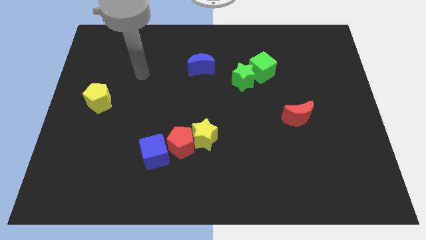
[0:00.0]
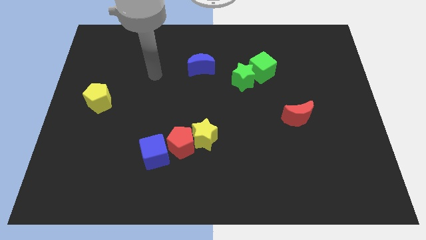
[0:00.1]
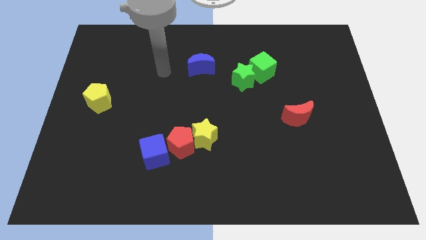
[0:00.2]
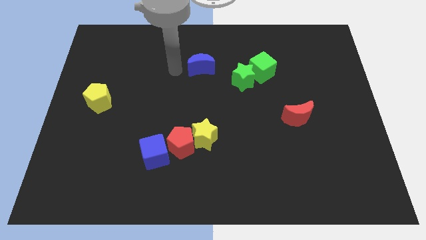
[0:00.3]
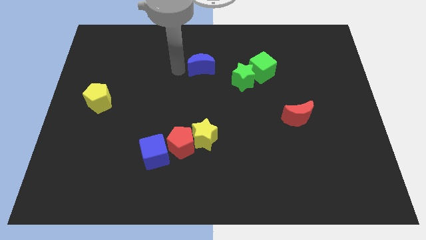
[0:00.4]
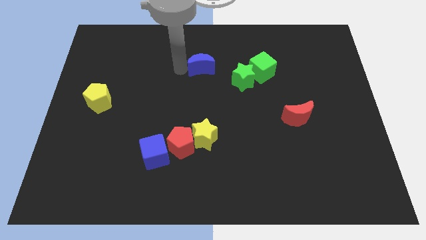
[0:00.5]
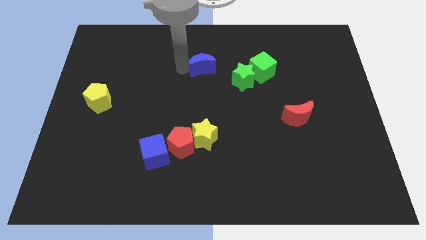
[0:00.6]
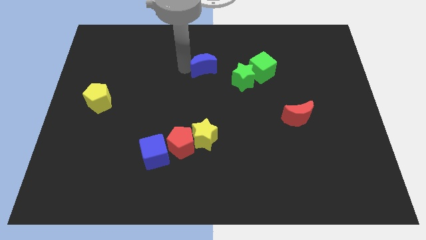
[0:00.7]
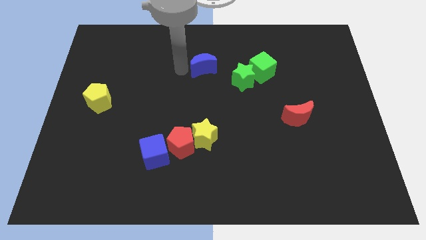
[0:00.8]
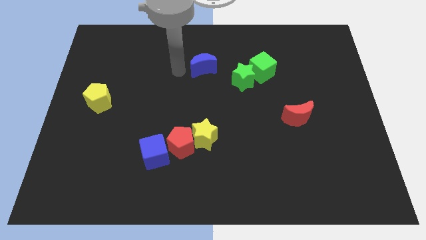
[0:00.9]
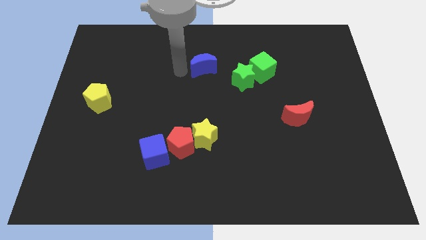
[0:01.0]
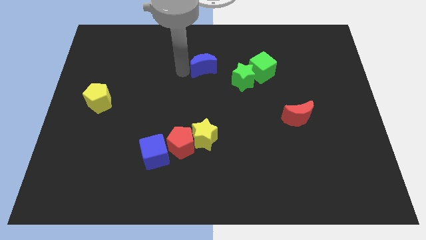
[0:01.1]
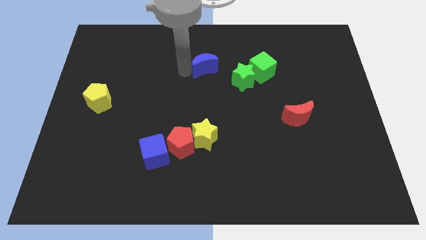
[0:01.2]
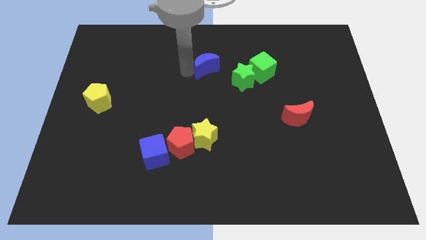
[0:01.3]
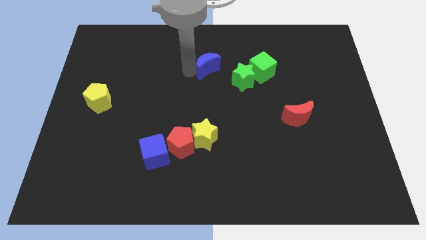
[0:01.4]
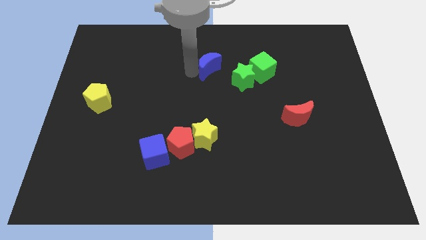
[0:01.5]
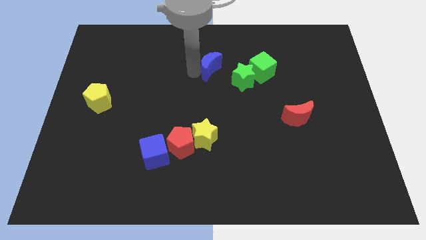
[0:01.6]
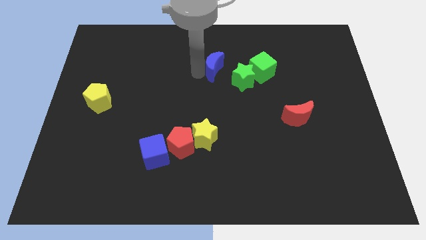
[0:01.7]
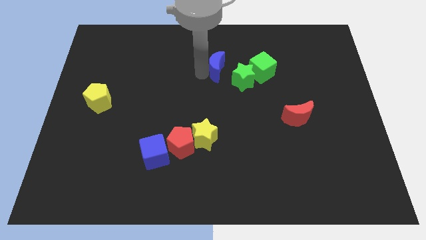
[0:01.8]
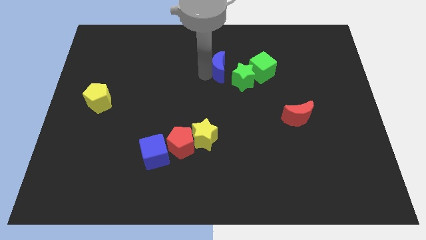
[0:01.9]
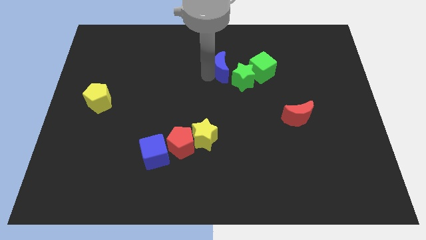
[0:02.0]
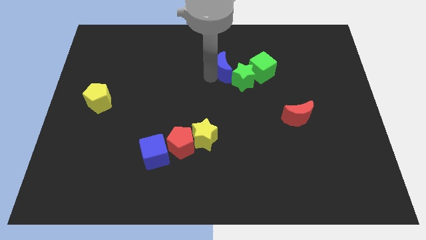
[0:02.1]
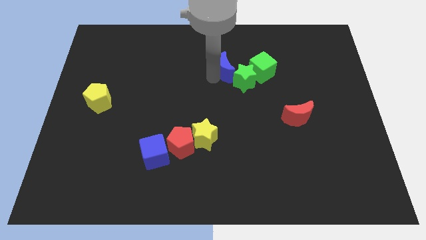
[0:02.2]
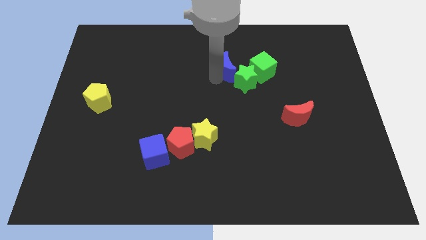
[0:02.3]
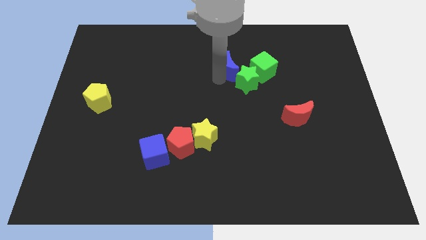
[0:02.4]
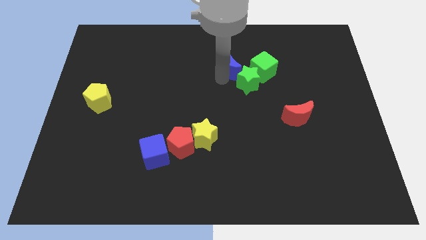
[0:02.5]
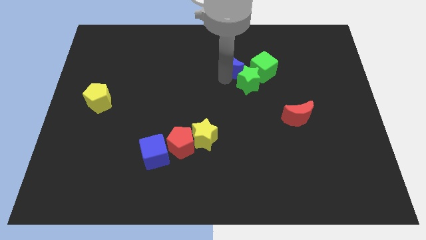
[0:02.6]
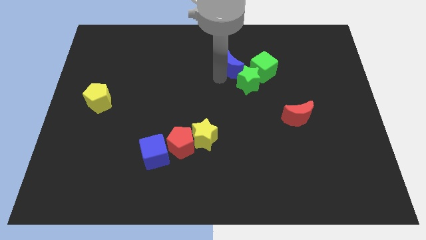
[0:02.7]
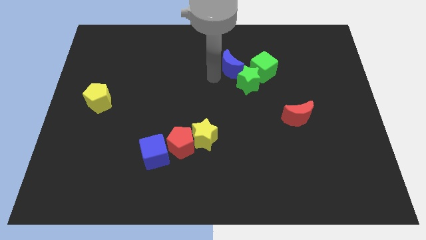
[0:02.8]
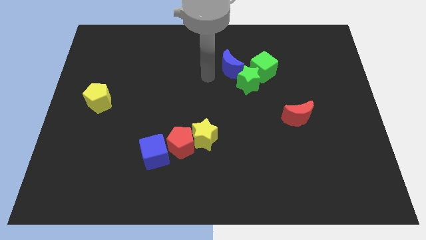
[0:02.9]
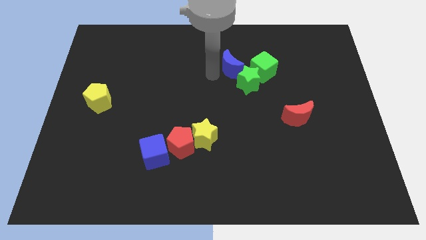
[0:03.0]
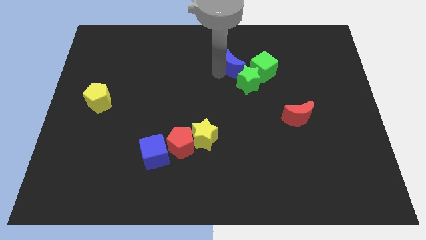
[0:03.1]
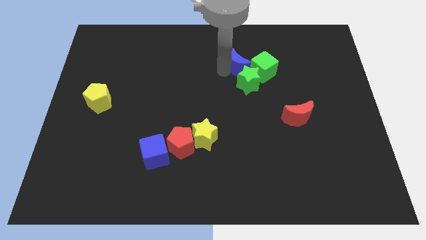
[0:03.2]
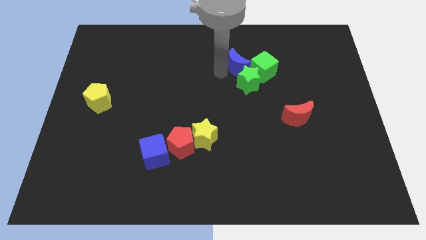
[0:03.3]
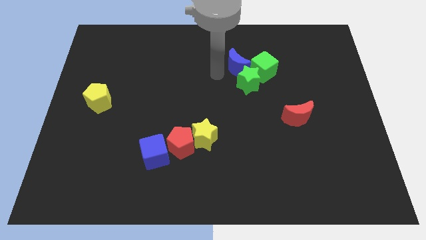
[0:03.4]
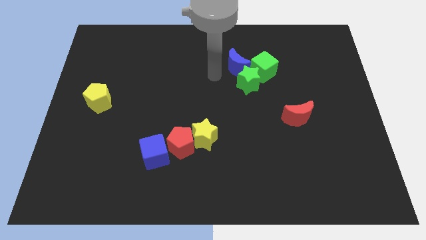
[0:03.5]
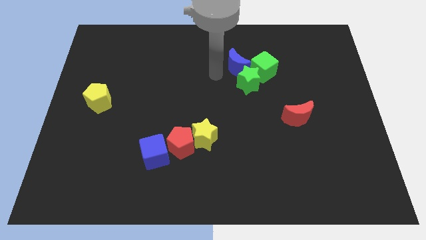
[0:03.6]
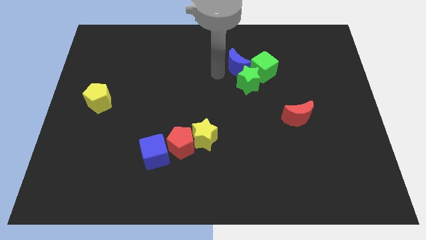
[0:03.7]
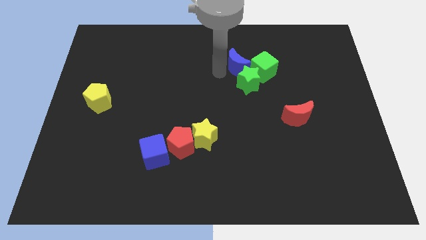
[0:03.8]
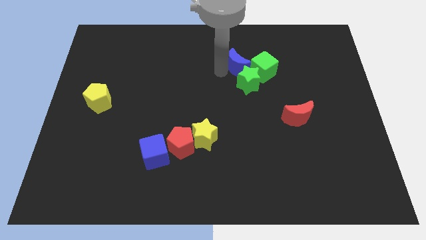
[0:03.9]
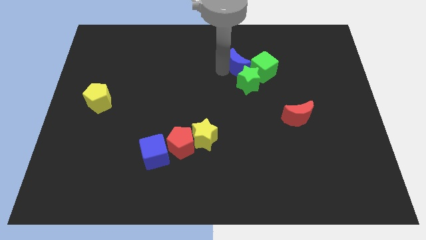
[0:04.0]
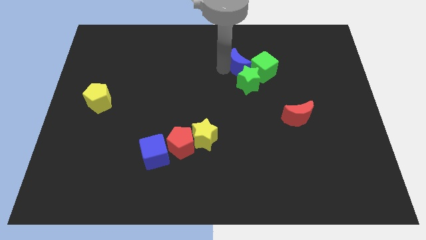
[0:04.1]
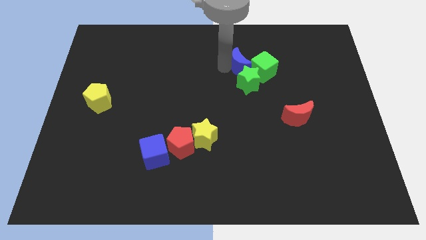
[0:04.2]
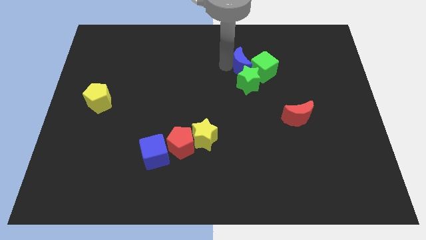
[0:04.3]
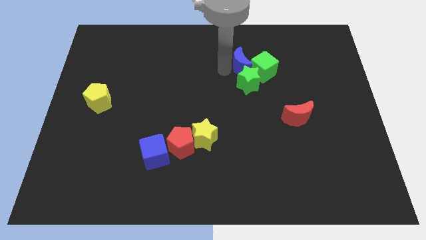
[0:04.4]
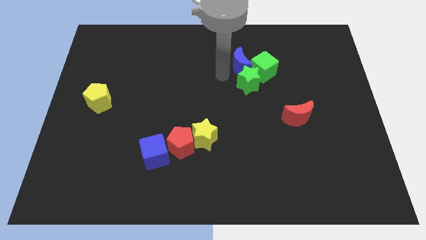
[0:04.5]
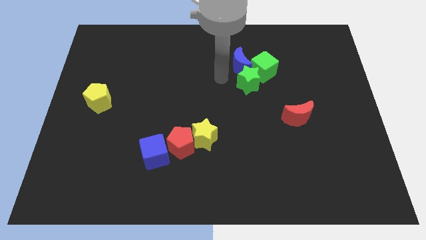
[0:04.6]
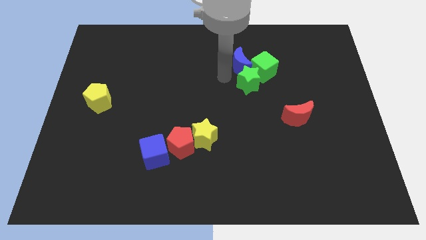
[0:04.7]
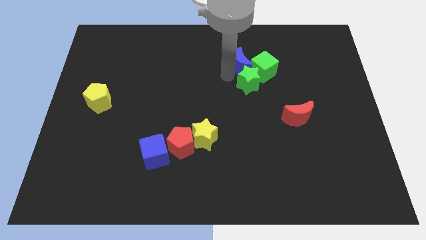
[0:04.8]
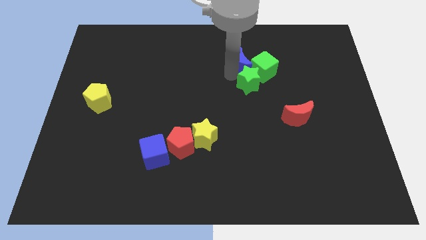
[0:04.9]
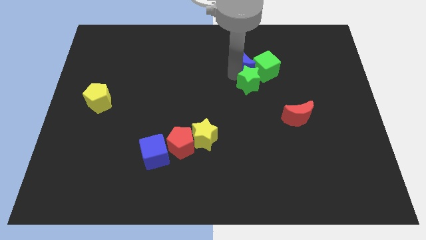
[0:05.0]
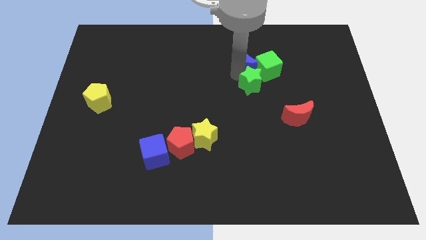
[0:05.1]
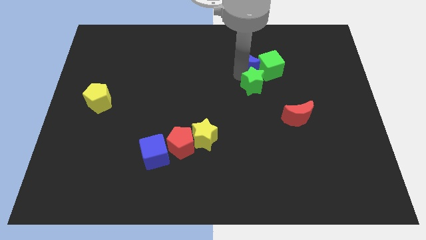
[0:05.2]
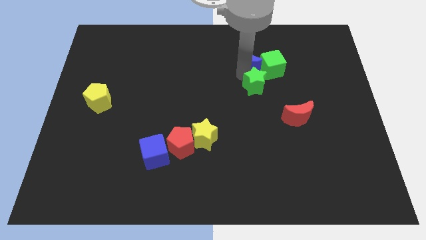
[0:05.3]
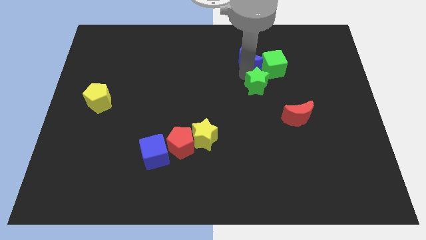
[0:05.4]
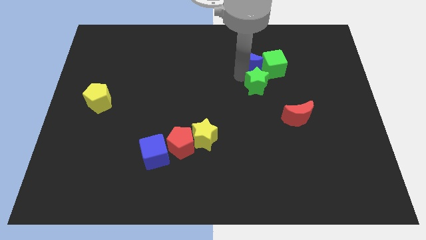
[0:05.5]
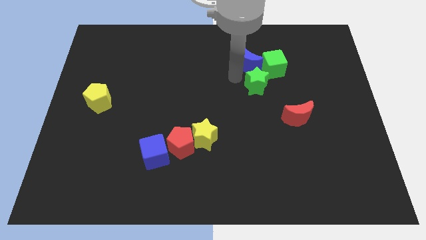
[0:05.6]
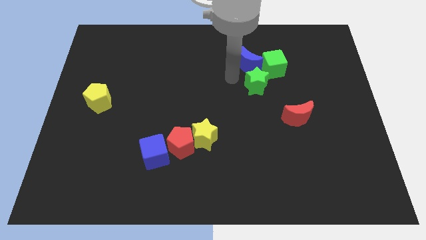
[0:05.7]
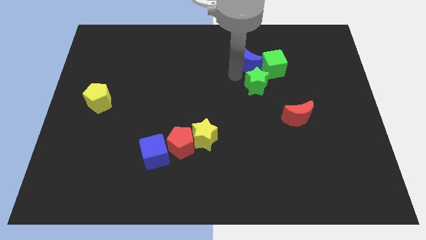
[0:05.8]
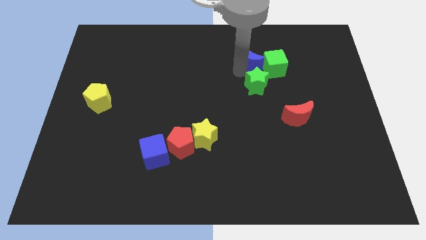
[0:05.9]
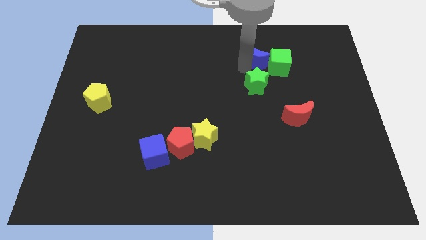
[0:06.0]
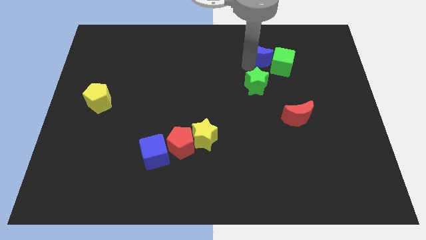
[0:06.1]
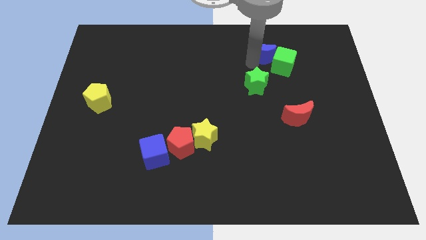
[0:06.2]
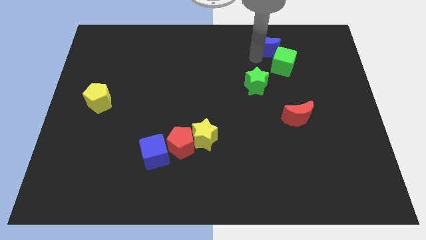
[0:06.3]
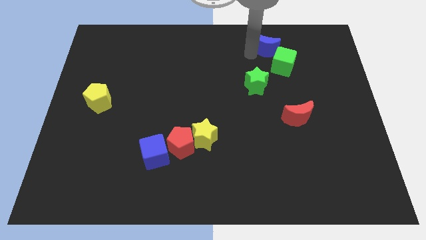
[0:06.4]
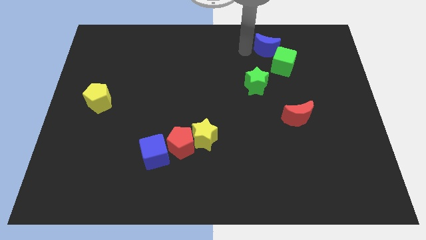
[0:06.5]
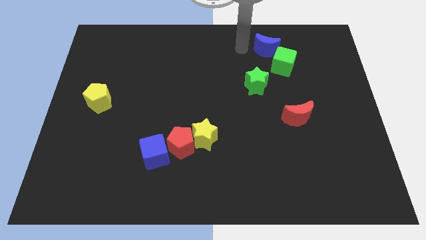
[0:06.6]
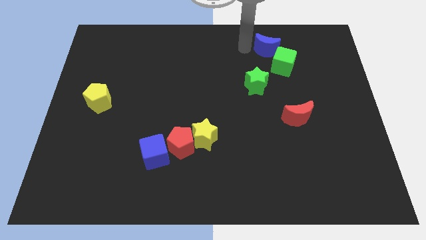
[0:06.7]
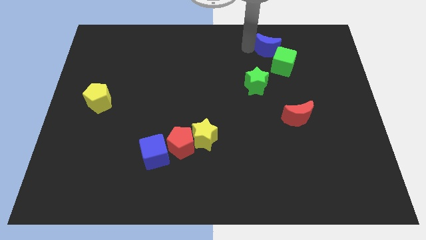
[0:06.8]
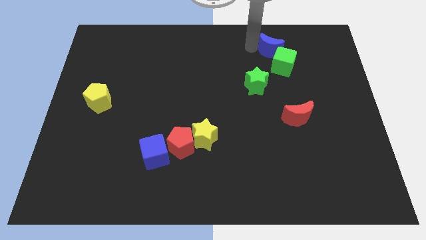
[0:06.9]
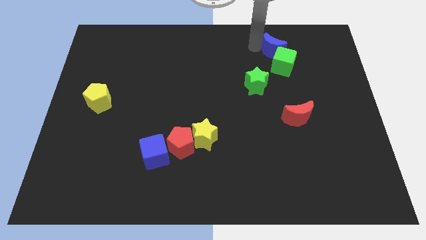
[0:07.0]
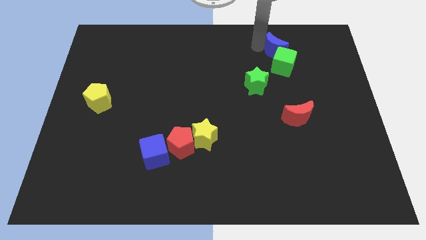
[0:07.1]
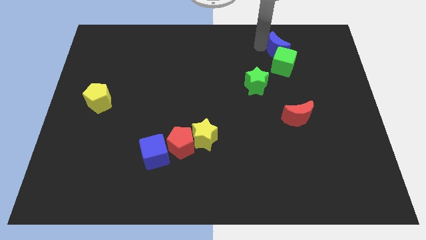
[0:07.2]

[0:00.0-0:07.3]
slide the blue moon to the top right of the green cube

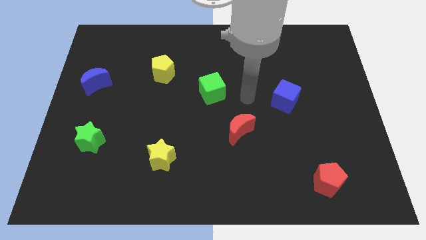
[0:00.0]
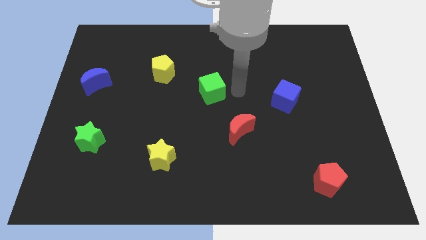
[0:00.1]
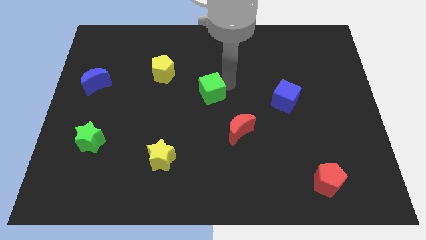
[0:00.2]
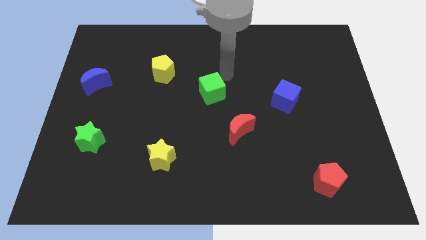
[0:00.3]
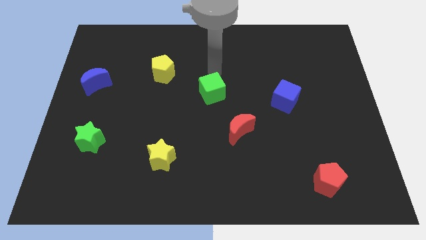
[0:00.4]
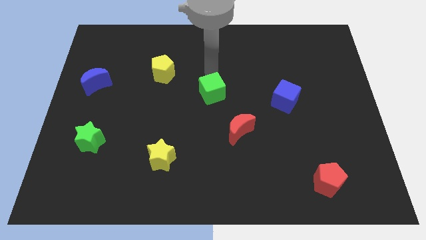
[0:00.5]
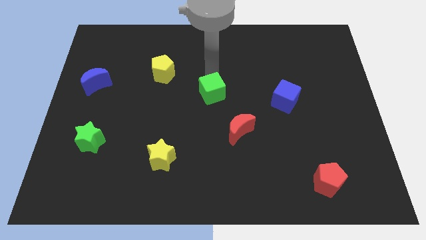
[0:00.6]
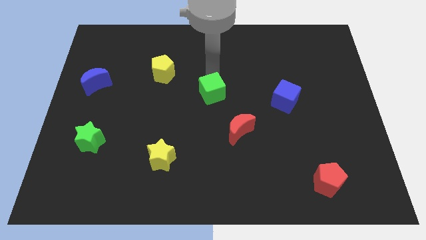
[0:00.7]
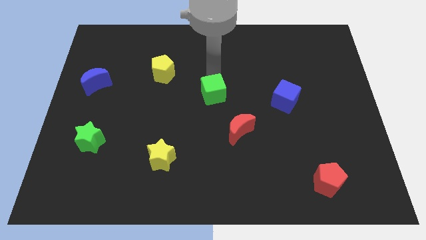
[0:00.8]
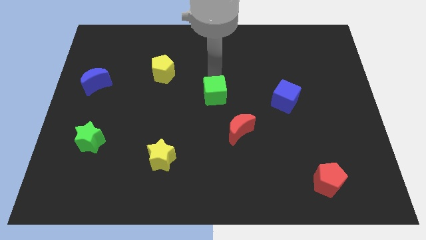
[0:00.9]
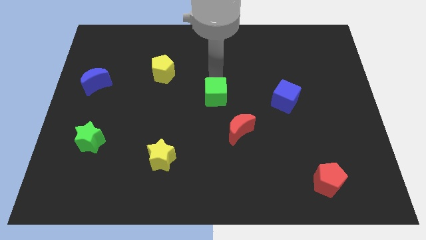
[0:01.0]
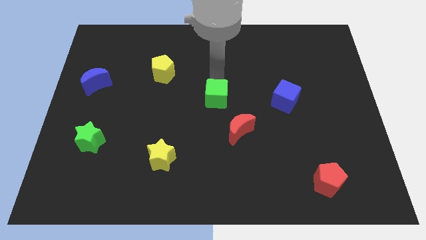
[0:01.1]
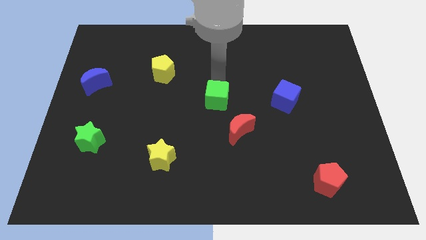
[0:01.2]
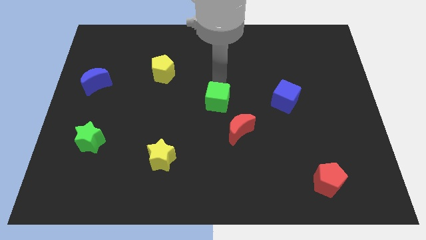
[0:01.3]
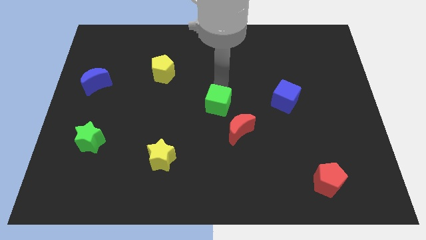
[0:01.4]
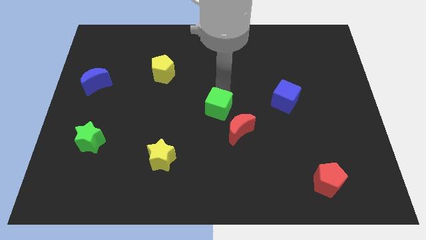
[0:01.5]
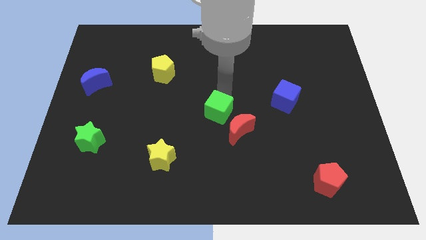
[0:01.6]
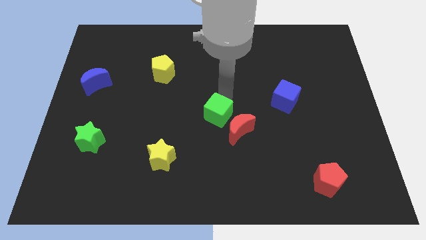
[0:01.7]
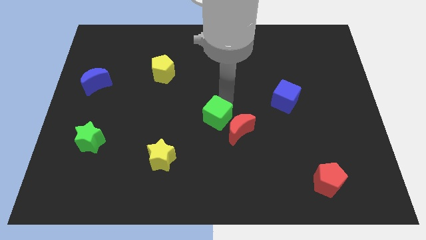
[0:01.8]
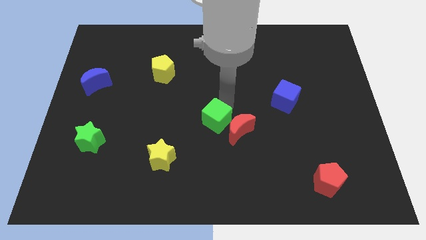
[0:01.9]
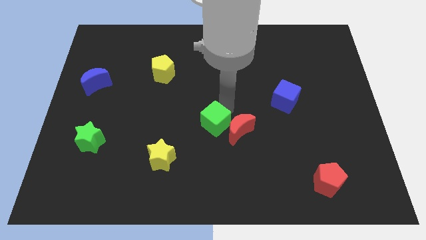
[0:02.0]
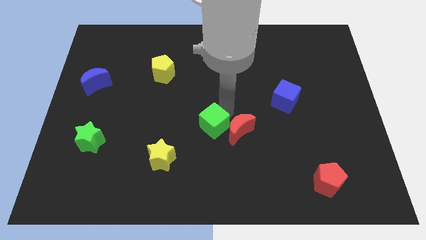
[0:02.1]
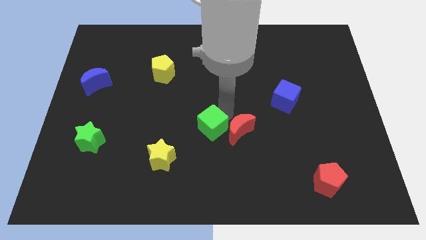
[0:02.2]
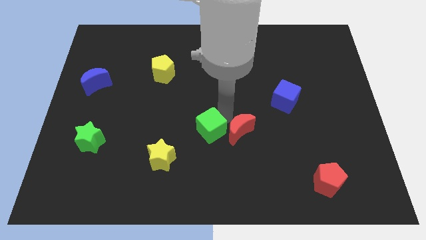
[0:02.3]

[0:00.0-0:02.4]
push the green cube diagonally up and to the right of the yellow star
